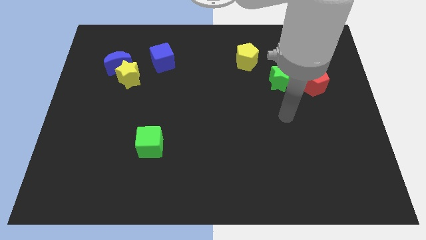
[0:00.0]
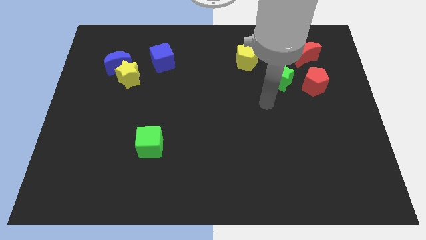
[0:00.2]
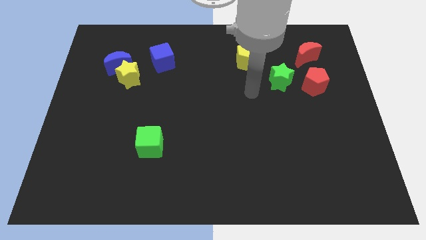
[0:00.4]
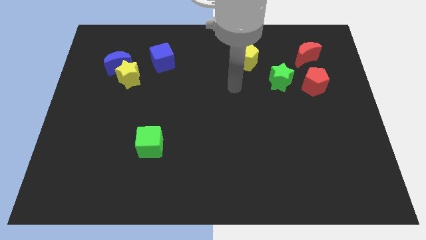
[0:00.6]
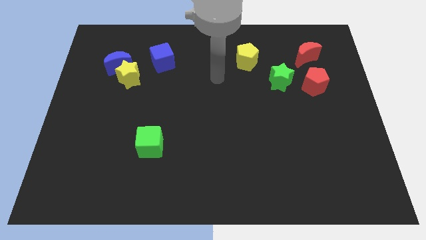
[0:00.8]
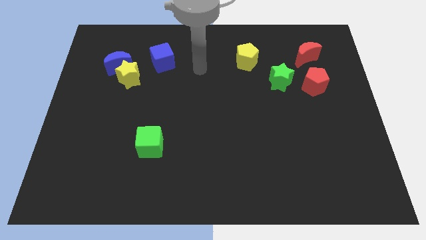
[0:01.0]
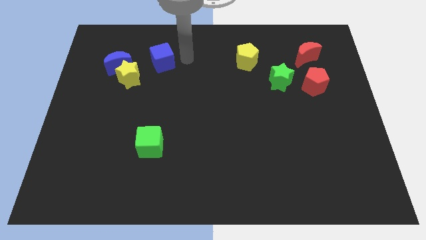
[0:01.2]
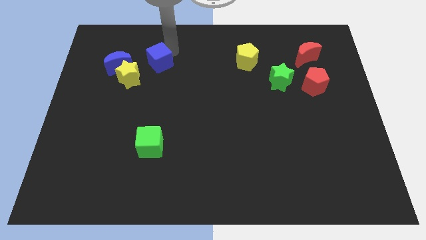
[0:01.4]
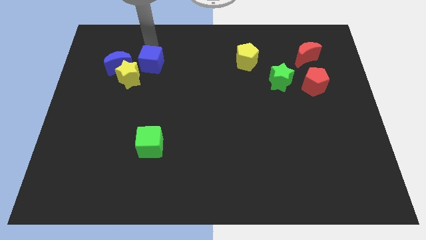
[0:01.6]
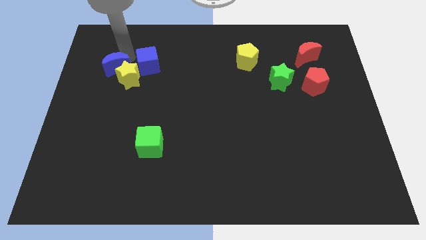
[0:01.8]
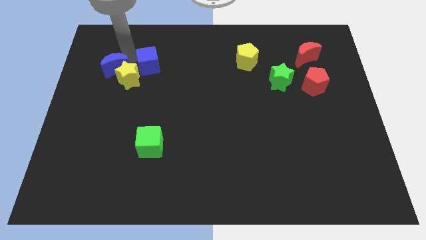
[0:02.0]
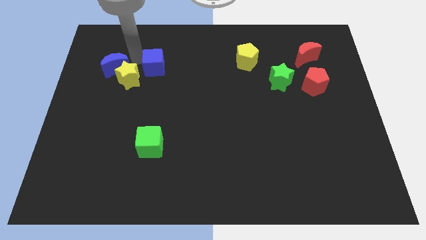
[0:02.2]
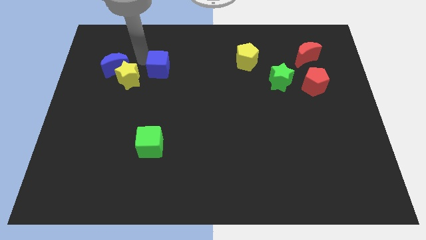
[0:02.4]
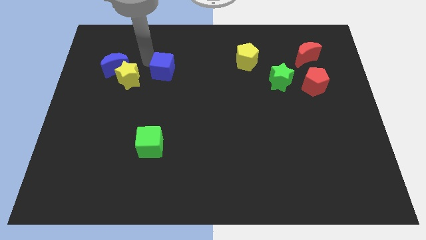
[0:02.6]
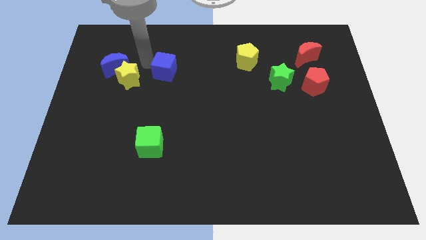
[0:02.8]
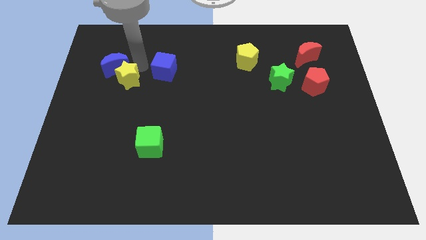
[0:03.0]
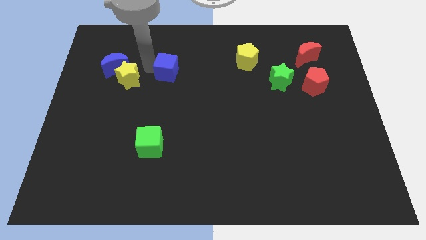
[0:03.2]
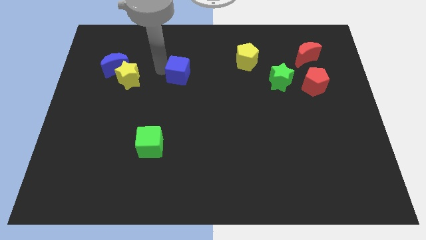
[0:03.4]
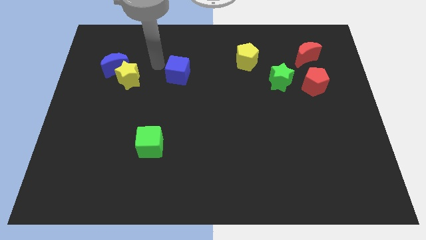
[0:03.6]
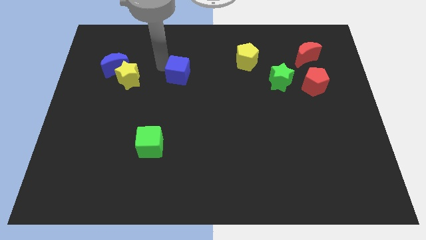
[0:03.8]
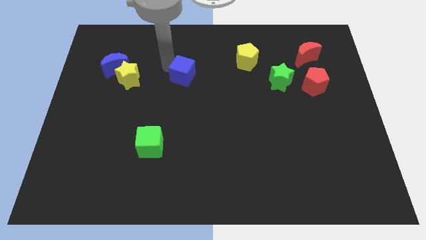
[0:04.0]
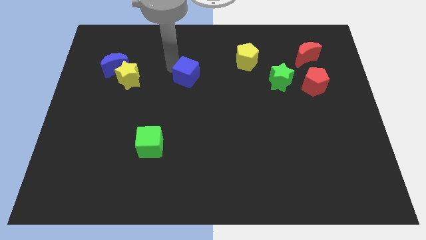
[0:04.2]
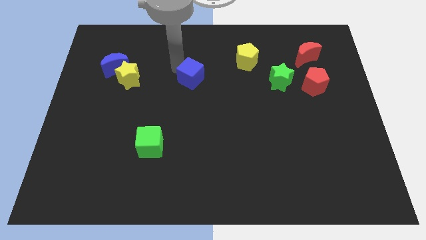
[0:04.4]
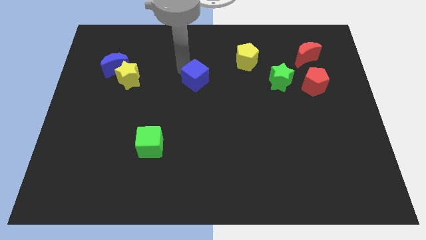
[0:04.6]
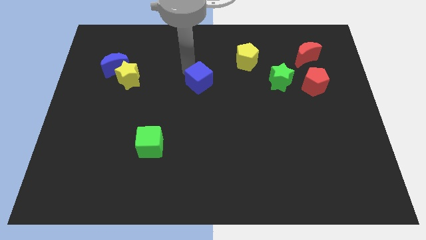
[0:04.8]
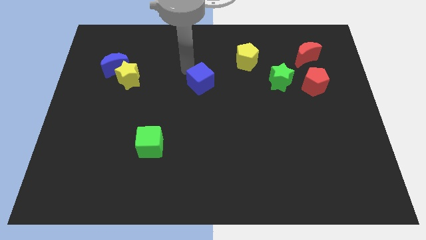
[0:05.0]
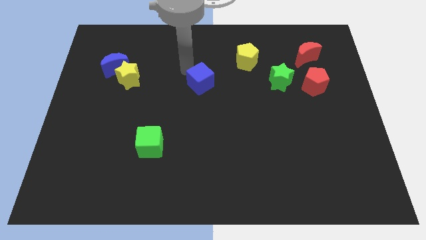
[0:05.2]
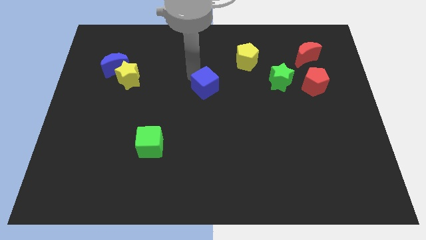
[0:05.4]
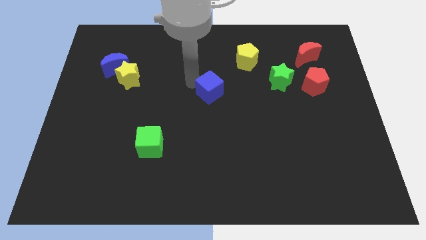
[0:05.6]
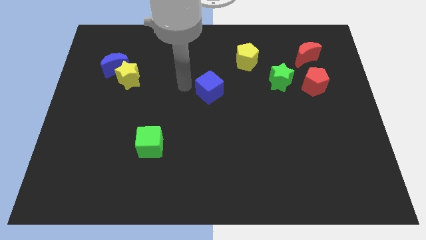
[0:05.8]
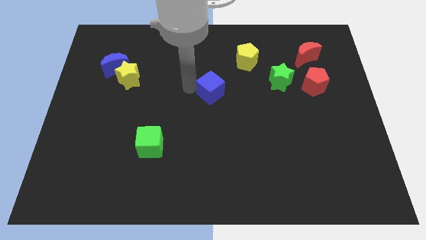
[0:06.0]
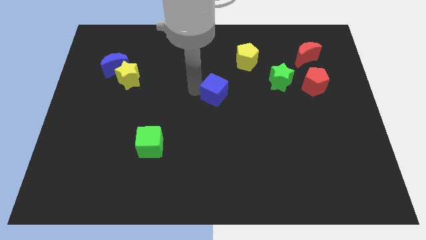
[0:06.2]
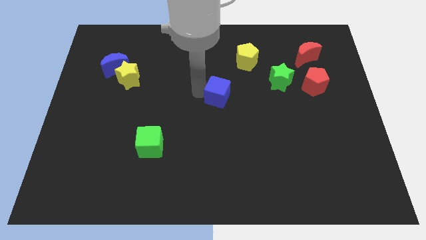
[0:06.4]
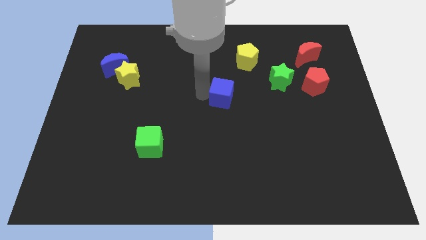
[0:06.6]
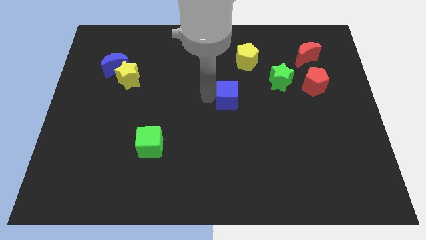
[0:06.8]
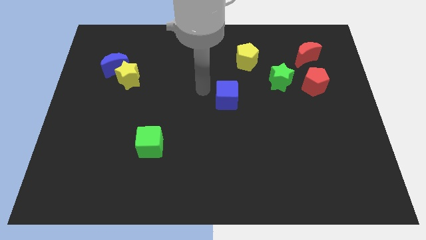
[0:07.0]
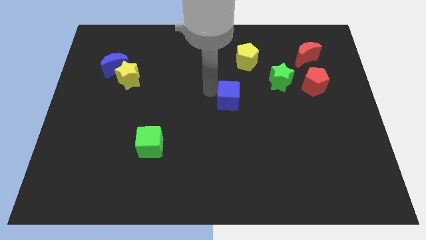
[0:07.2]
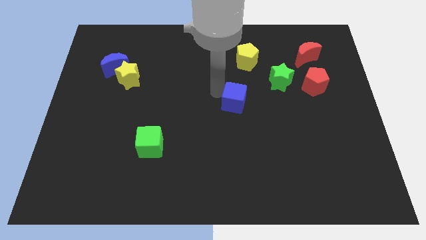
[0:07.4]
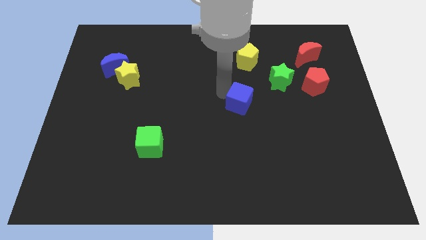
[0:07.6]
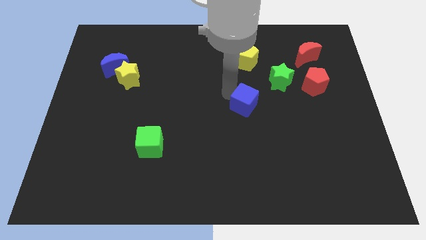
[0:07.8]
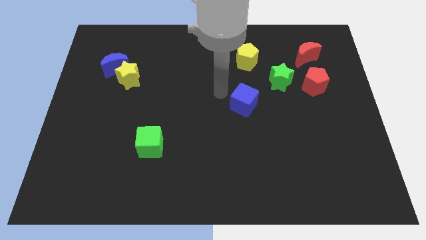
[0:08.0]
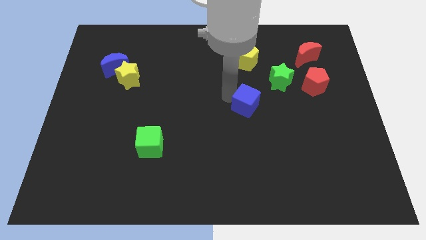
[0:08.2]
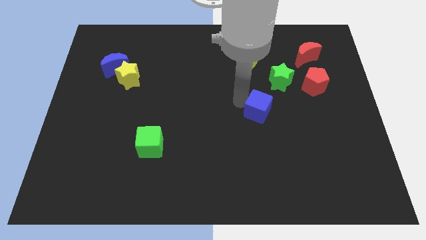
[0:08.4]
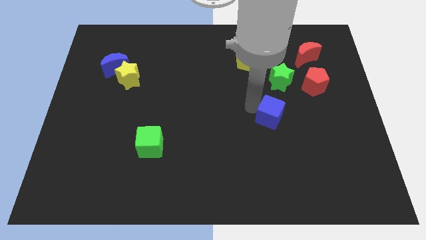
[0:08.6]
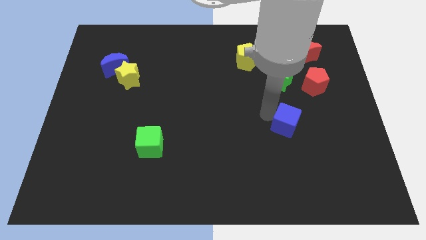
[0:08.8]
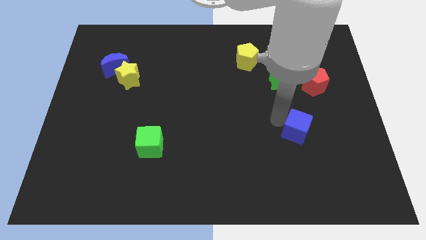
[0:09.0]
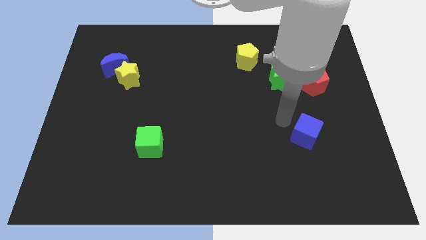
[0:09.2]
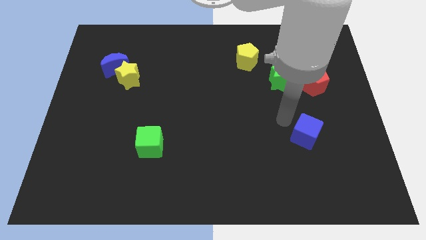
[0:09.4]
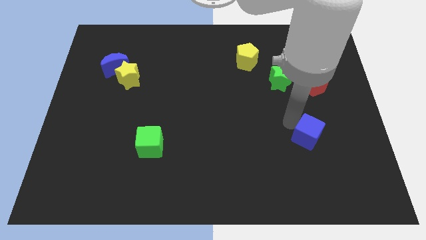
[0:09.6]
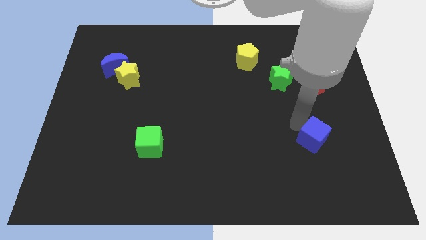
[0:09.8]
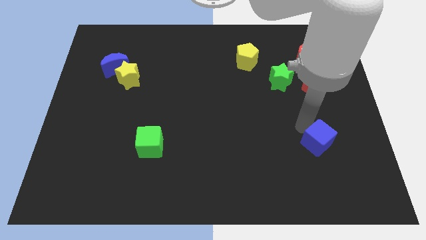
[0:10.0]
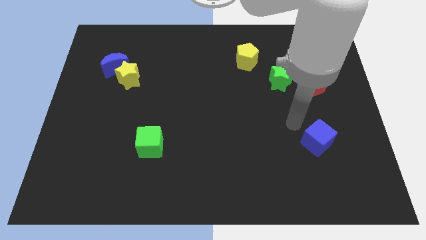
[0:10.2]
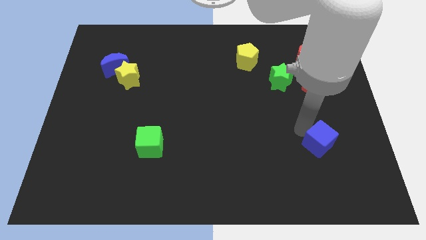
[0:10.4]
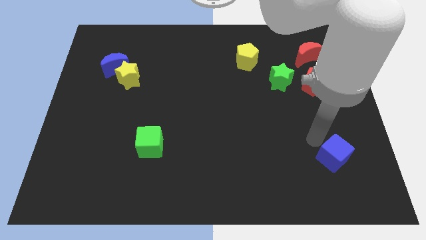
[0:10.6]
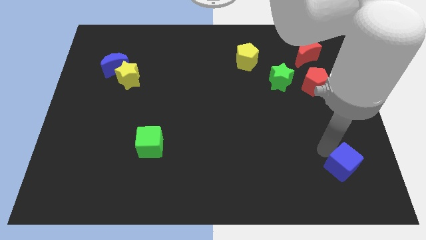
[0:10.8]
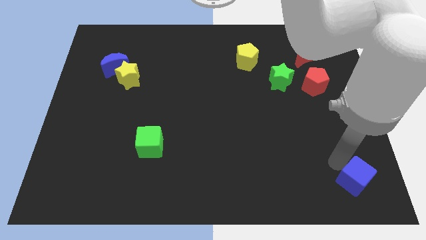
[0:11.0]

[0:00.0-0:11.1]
move the blue cube to the bottom right of the board

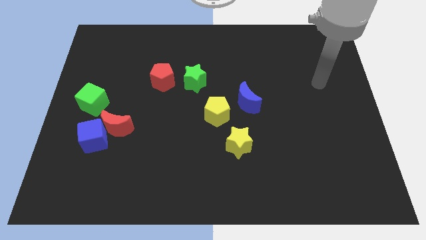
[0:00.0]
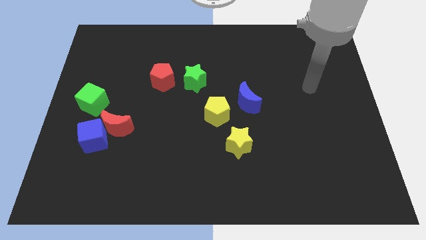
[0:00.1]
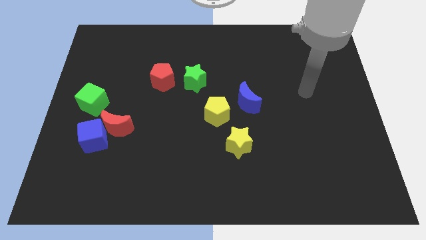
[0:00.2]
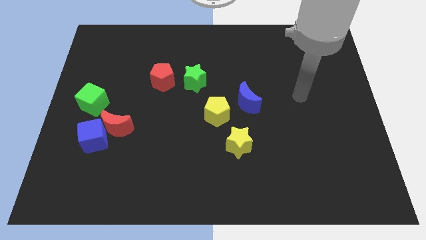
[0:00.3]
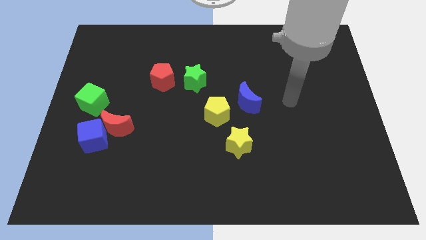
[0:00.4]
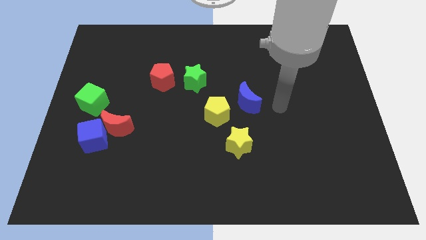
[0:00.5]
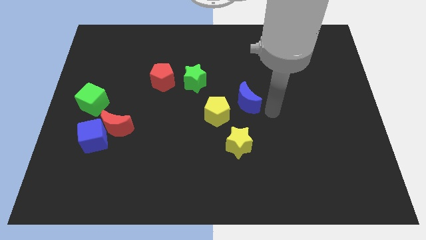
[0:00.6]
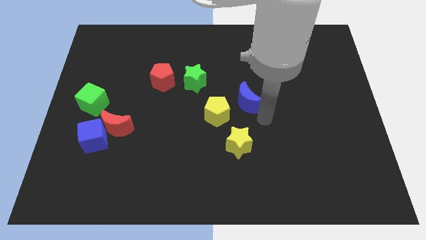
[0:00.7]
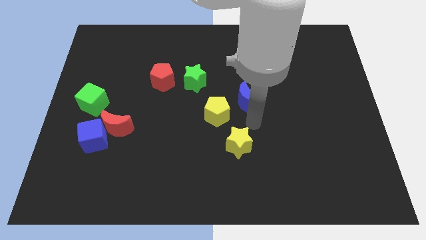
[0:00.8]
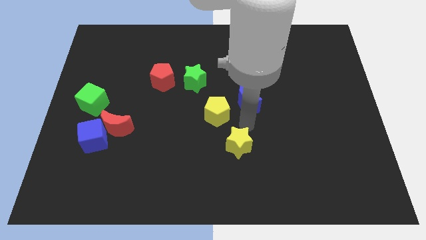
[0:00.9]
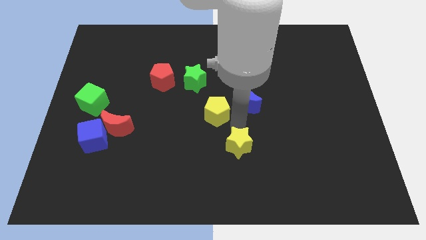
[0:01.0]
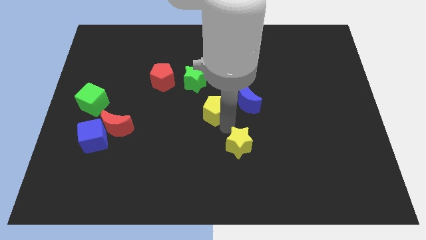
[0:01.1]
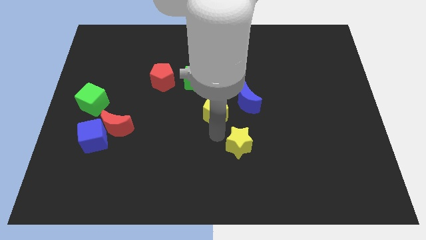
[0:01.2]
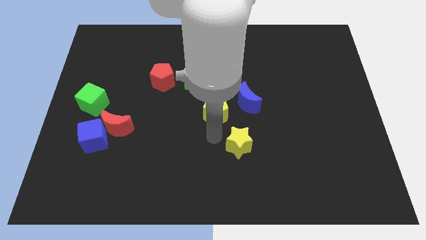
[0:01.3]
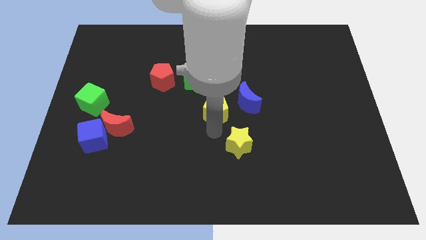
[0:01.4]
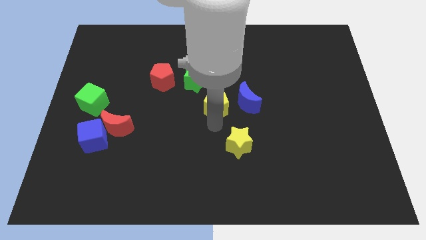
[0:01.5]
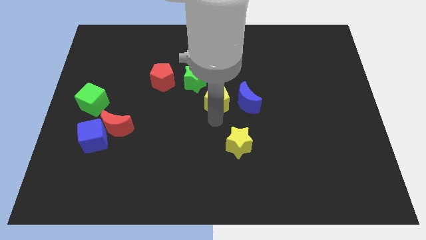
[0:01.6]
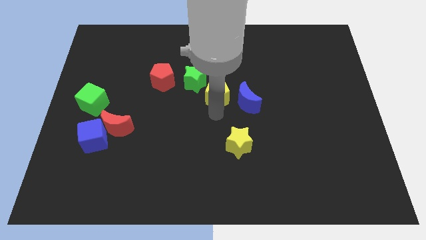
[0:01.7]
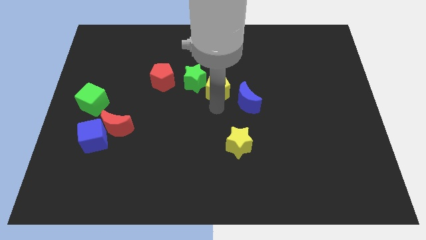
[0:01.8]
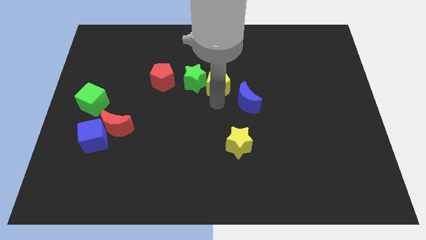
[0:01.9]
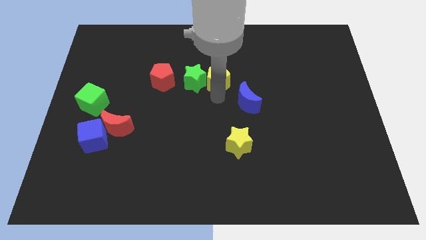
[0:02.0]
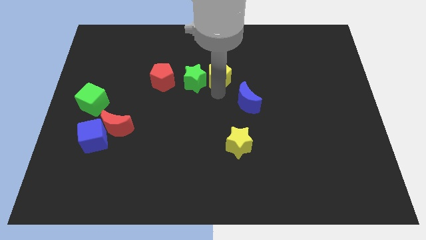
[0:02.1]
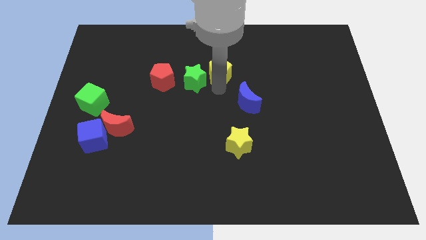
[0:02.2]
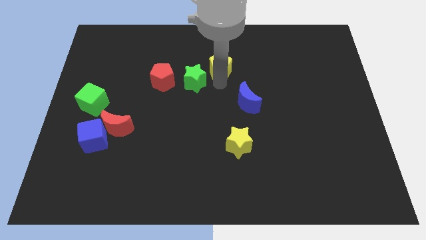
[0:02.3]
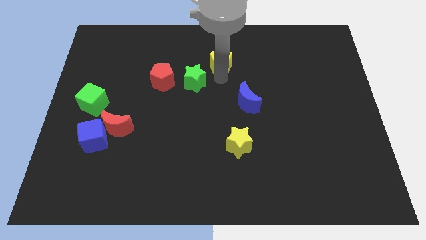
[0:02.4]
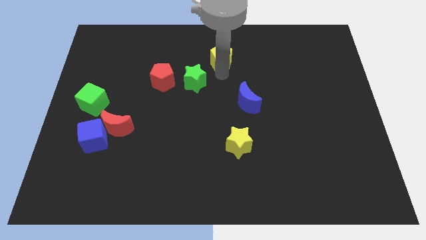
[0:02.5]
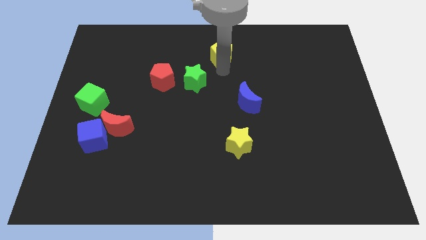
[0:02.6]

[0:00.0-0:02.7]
slide the yellow pentagon to the top side
